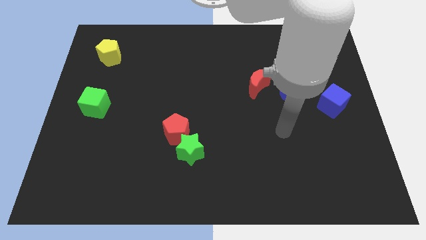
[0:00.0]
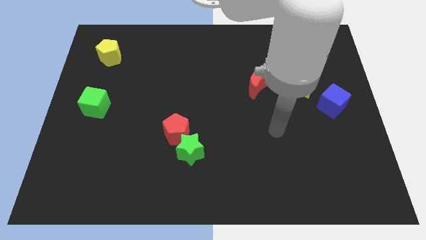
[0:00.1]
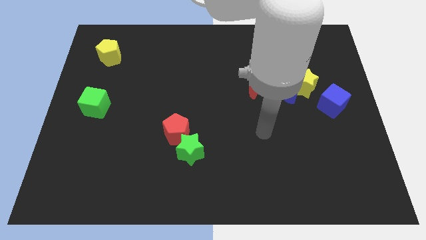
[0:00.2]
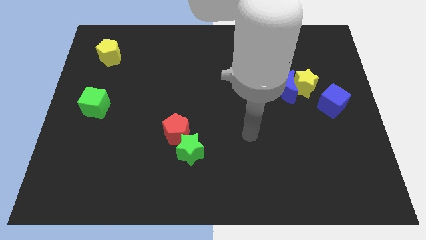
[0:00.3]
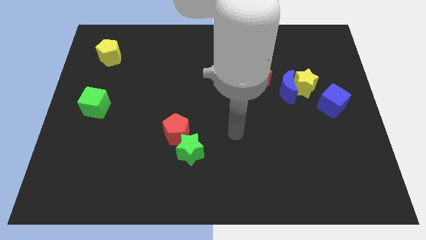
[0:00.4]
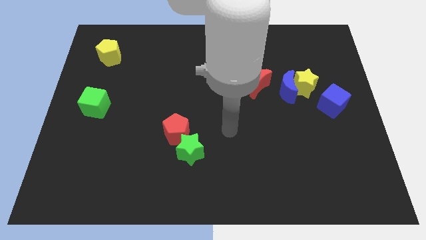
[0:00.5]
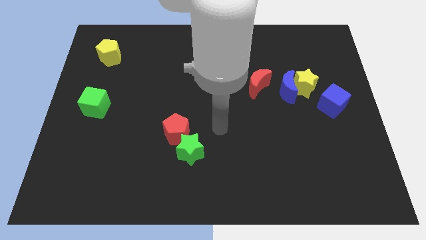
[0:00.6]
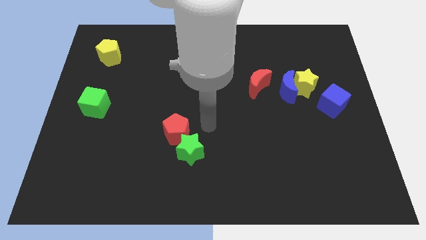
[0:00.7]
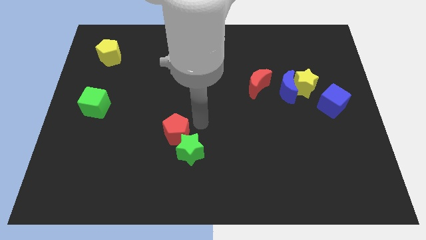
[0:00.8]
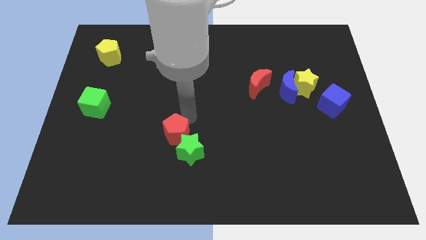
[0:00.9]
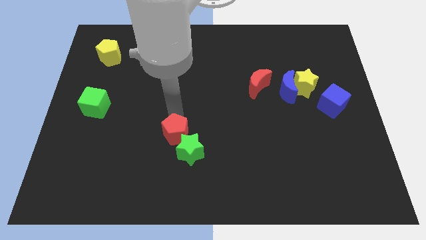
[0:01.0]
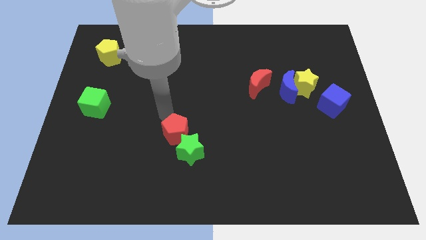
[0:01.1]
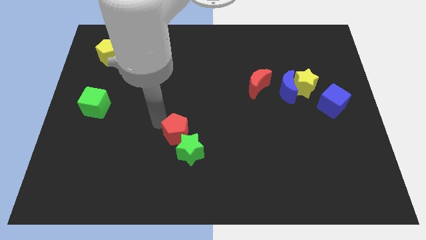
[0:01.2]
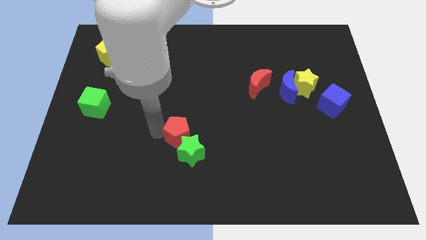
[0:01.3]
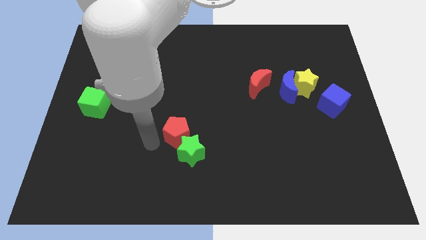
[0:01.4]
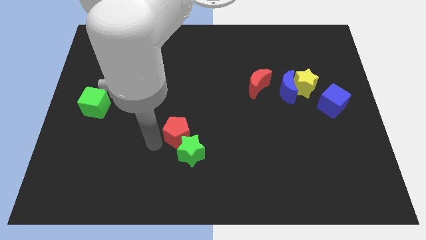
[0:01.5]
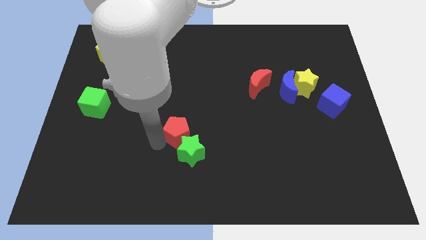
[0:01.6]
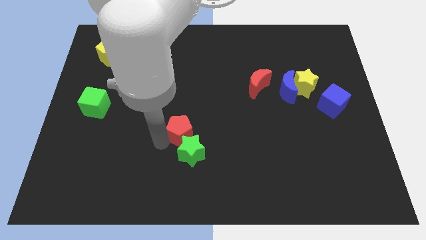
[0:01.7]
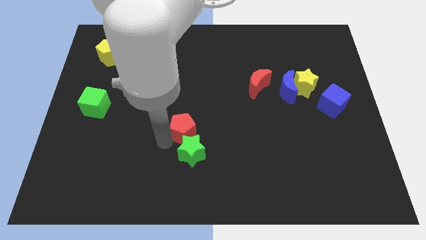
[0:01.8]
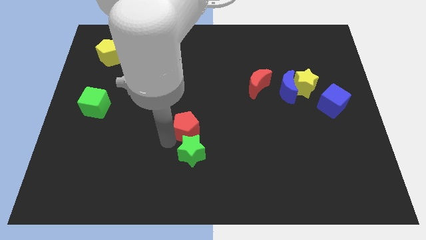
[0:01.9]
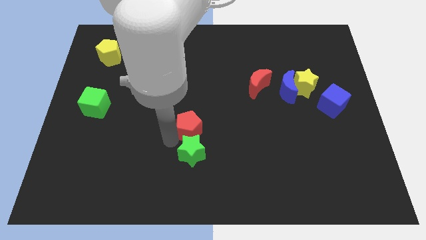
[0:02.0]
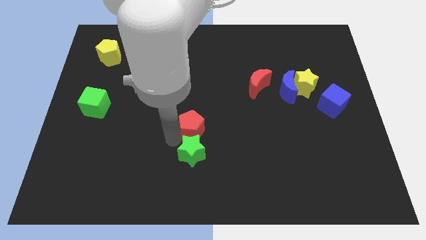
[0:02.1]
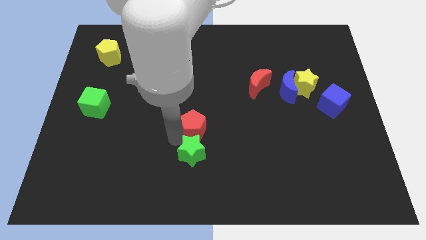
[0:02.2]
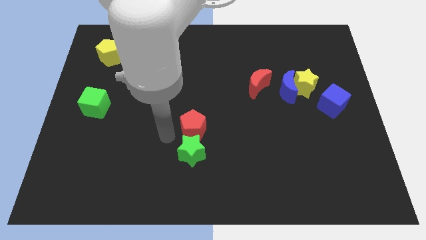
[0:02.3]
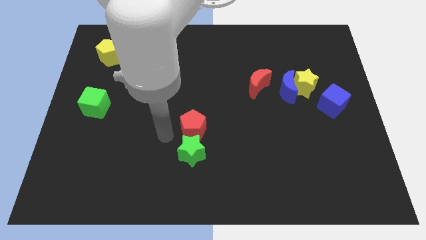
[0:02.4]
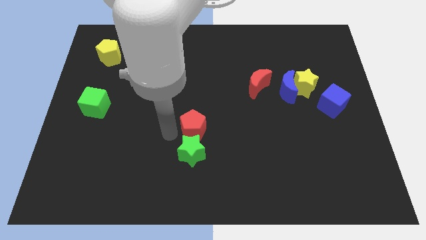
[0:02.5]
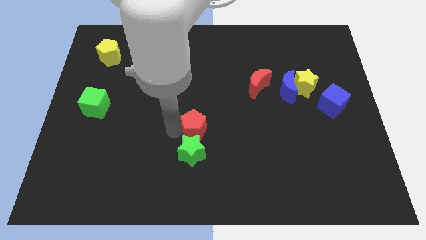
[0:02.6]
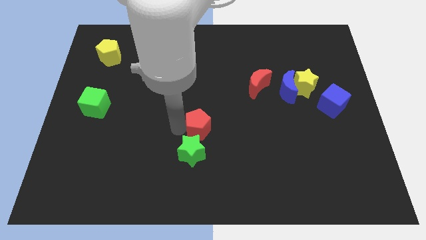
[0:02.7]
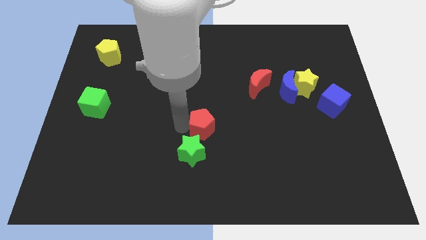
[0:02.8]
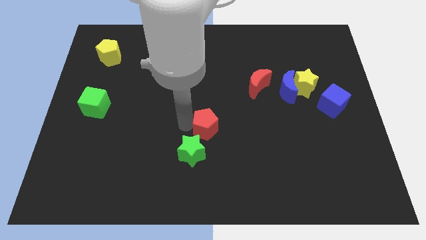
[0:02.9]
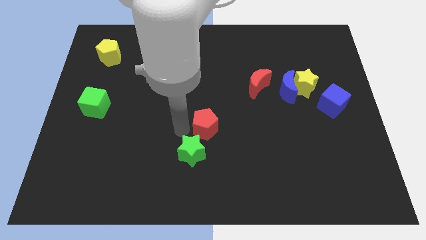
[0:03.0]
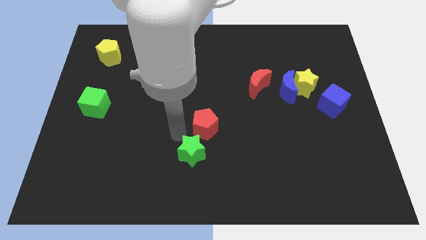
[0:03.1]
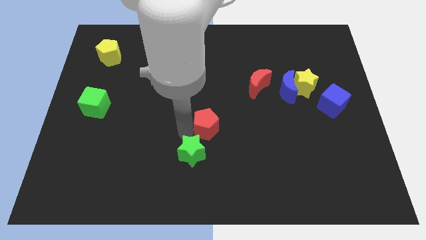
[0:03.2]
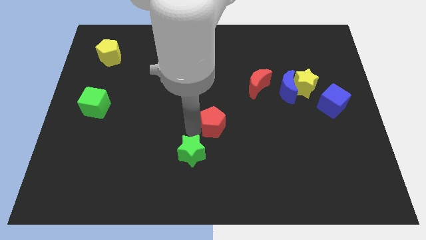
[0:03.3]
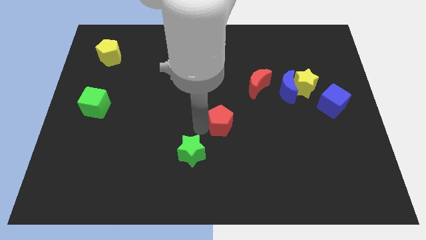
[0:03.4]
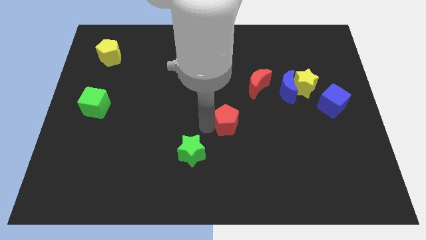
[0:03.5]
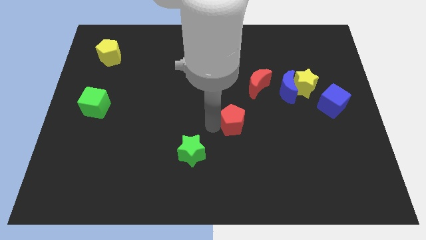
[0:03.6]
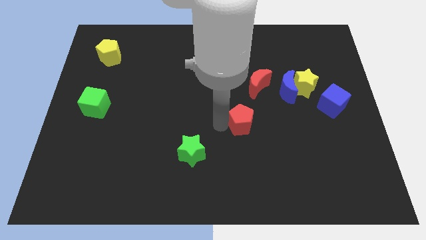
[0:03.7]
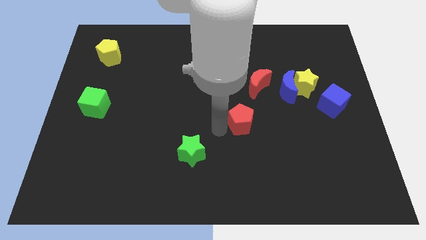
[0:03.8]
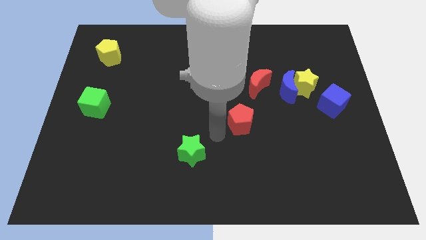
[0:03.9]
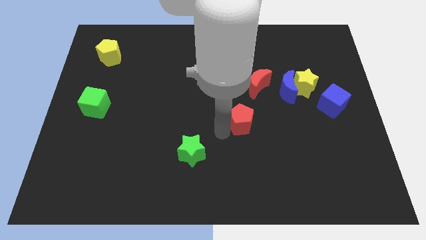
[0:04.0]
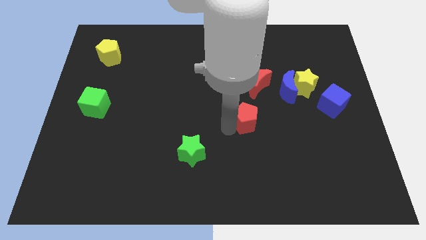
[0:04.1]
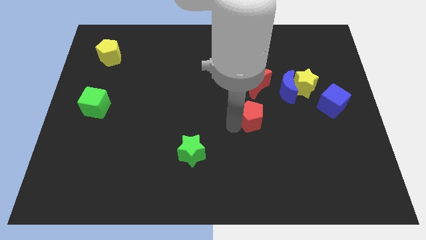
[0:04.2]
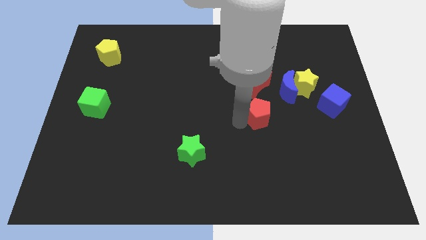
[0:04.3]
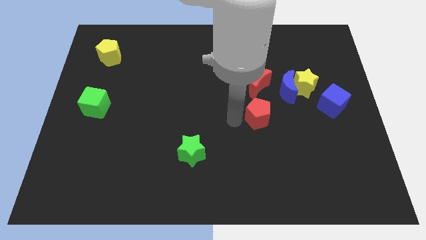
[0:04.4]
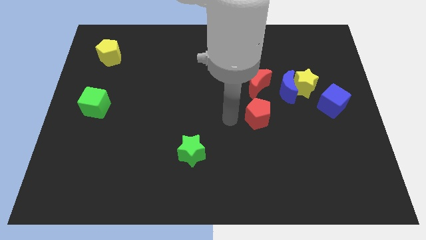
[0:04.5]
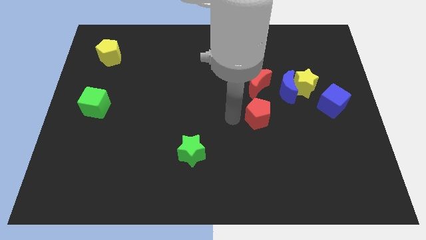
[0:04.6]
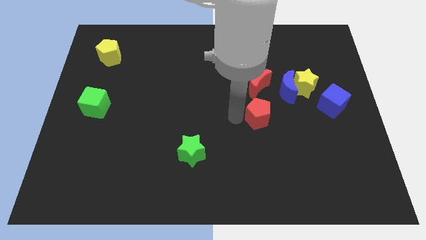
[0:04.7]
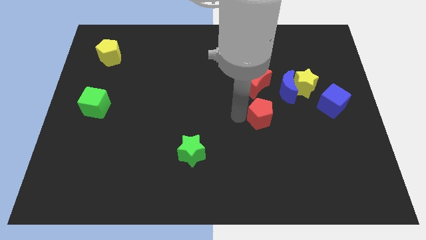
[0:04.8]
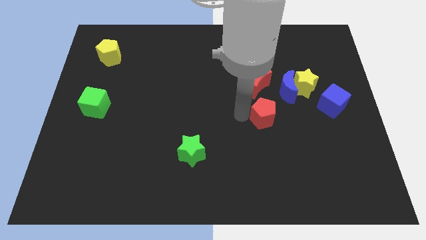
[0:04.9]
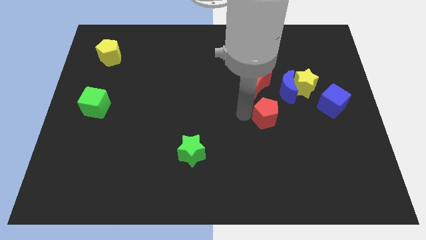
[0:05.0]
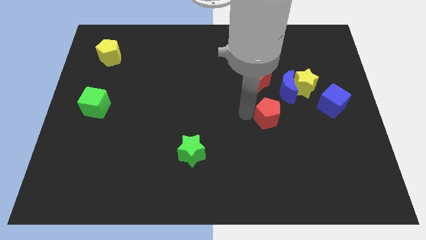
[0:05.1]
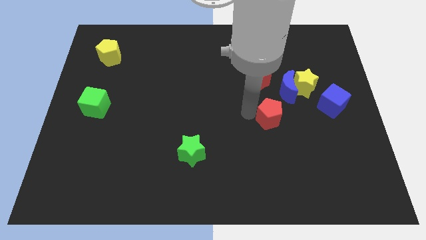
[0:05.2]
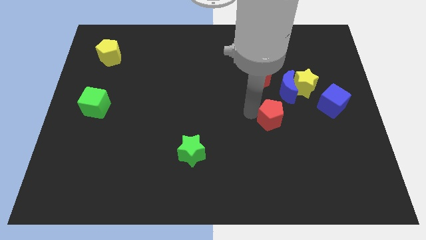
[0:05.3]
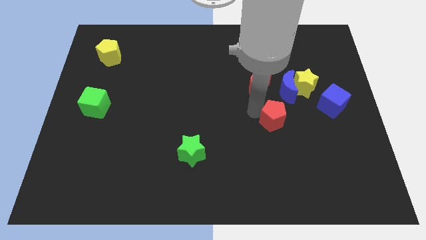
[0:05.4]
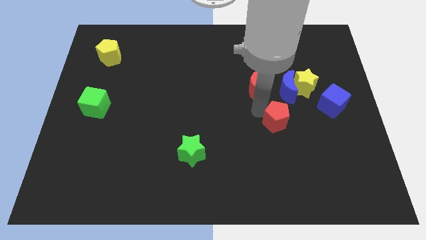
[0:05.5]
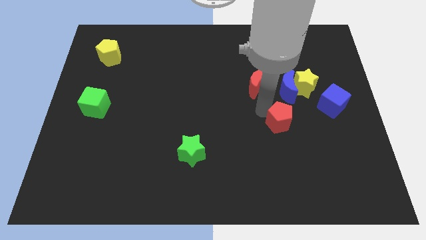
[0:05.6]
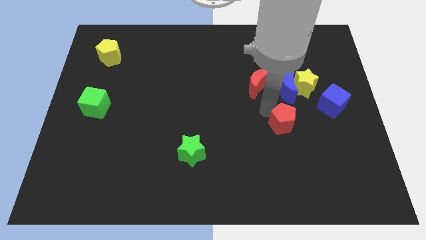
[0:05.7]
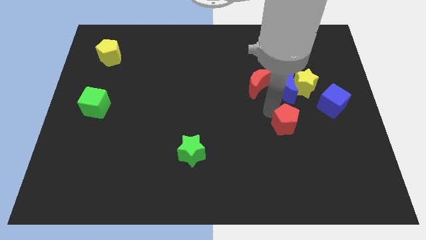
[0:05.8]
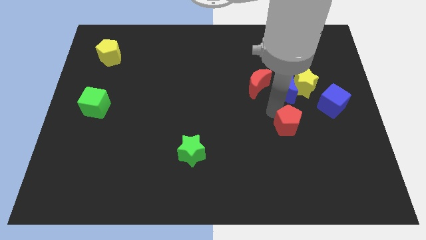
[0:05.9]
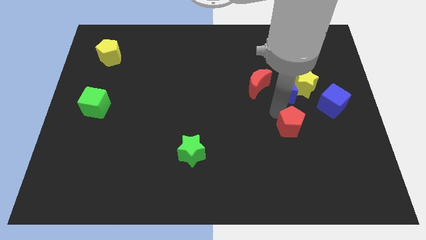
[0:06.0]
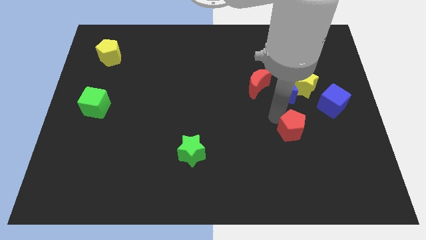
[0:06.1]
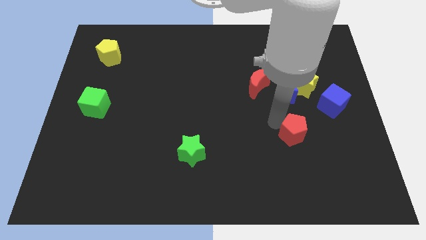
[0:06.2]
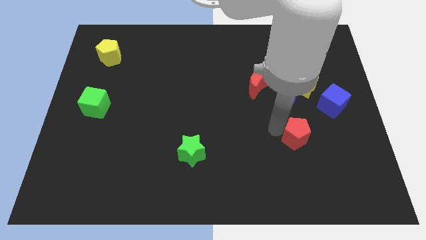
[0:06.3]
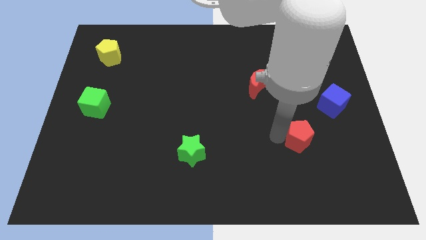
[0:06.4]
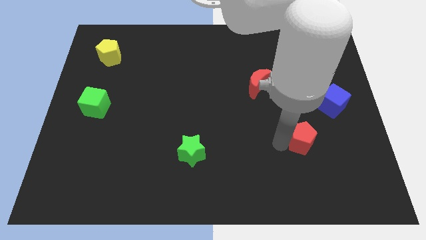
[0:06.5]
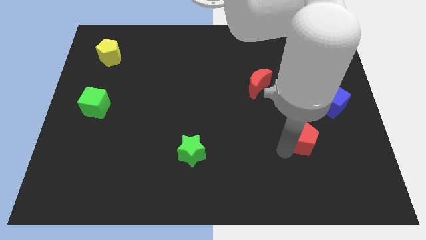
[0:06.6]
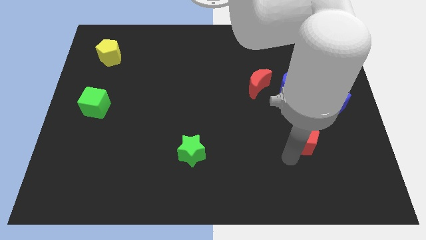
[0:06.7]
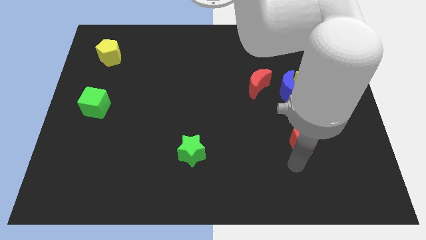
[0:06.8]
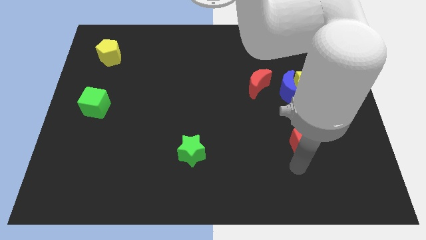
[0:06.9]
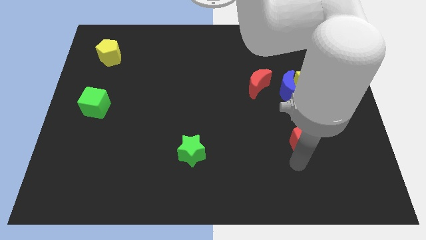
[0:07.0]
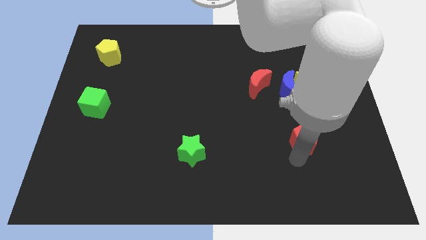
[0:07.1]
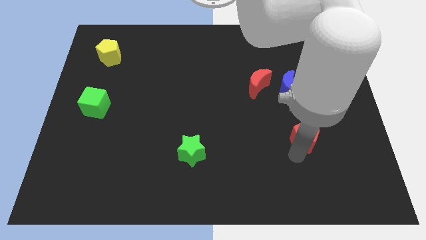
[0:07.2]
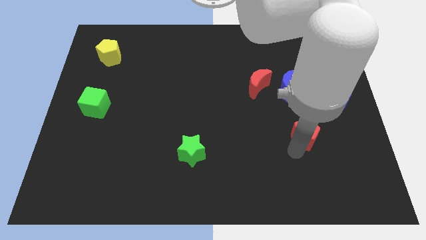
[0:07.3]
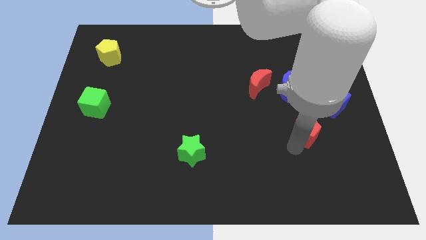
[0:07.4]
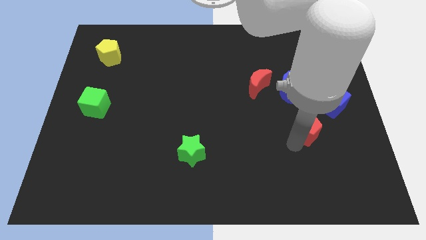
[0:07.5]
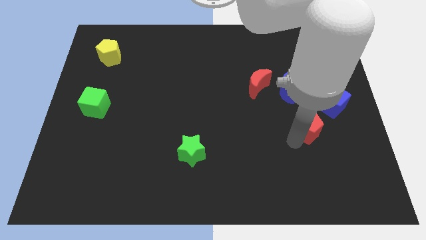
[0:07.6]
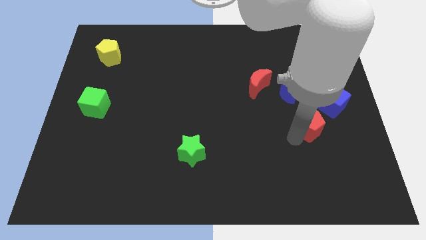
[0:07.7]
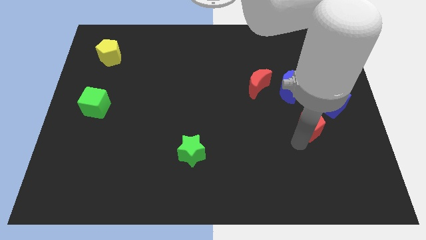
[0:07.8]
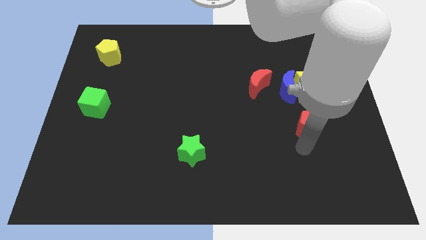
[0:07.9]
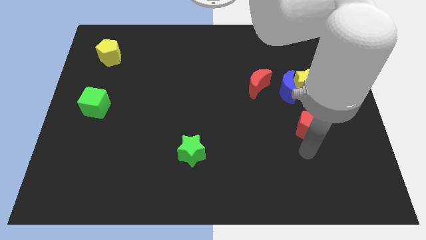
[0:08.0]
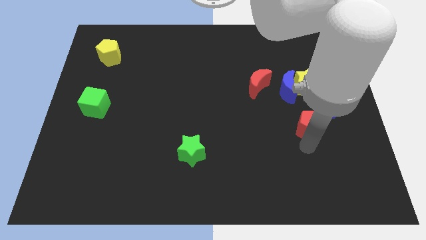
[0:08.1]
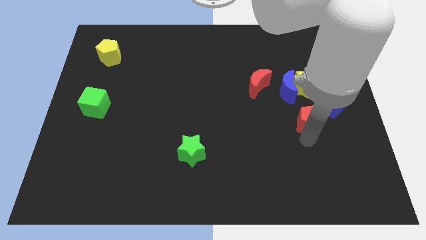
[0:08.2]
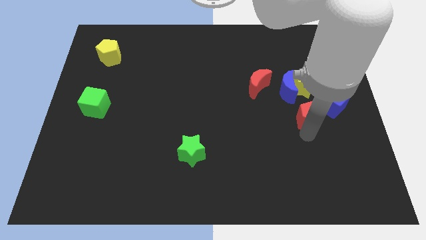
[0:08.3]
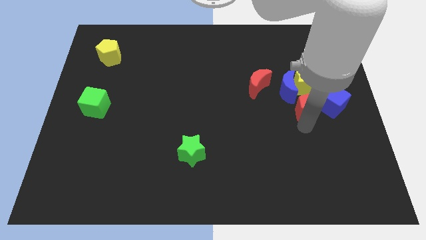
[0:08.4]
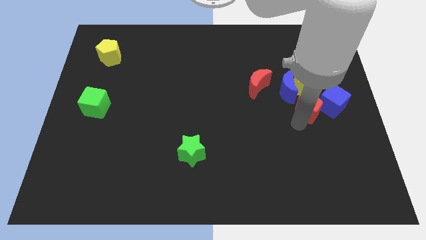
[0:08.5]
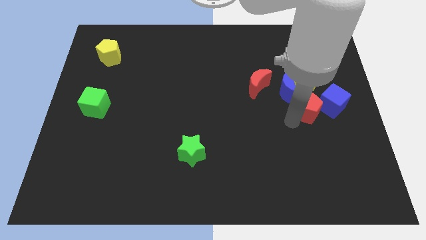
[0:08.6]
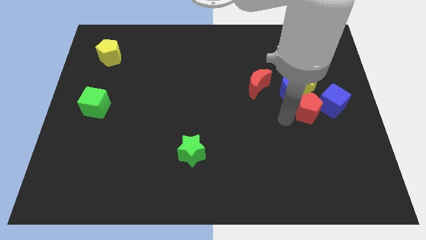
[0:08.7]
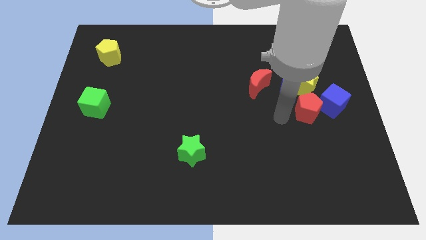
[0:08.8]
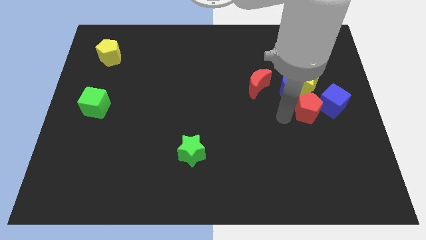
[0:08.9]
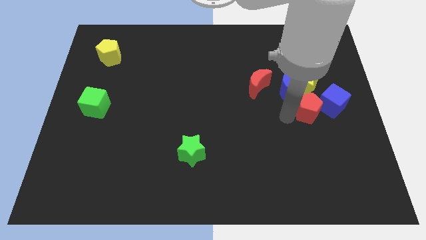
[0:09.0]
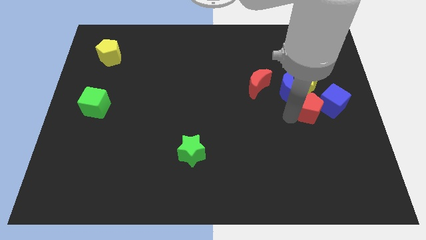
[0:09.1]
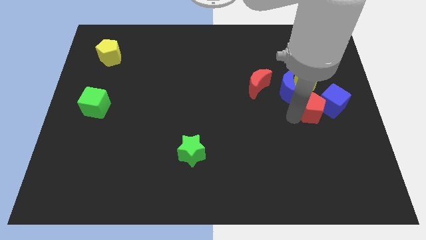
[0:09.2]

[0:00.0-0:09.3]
push the red pentagon next to the blue cube
